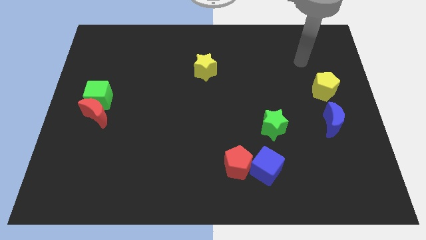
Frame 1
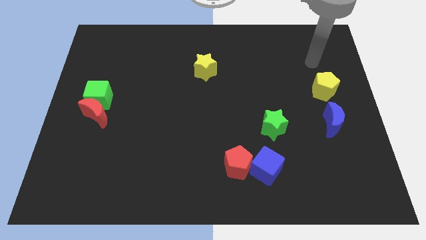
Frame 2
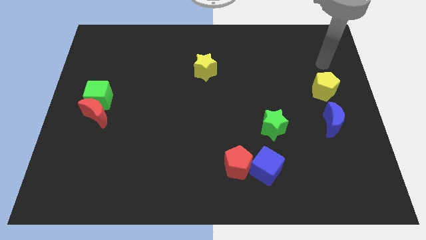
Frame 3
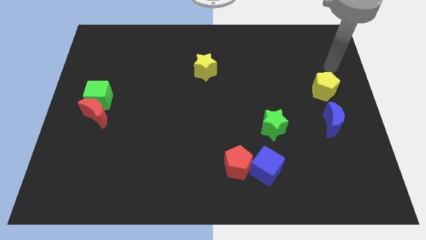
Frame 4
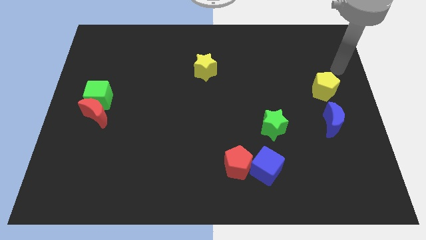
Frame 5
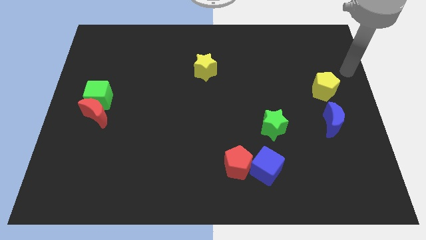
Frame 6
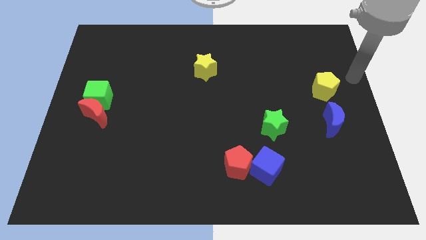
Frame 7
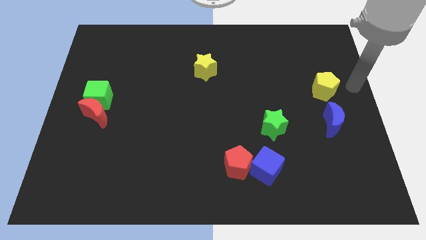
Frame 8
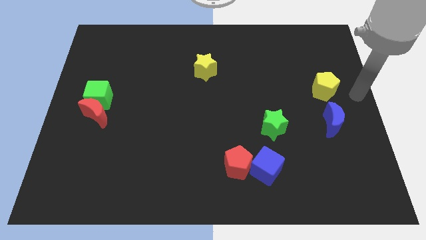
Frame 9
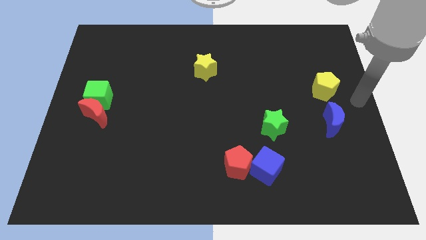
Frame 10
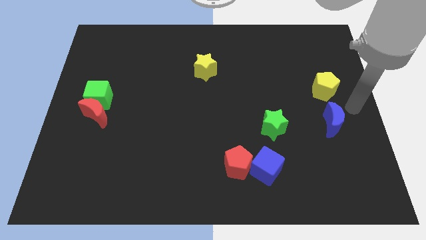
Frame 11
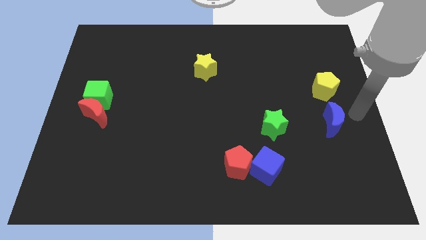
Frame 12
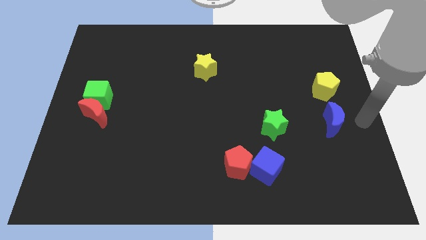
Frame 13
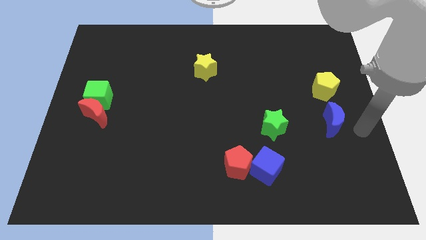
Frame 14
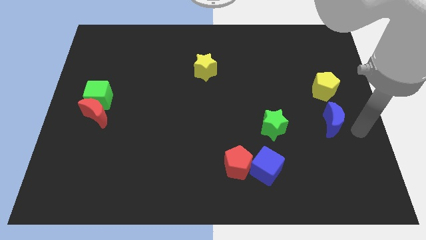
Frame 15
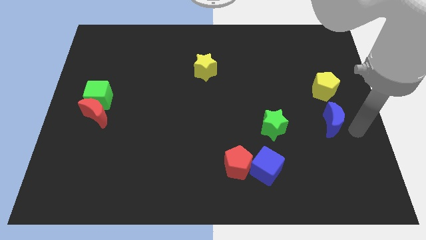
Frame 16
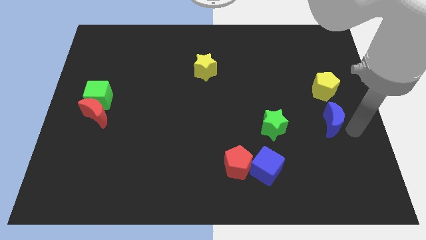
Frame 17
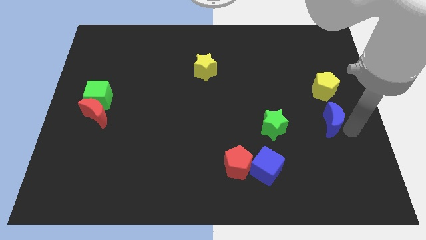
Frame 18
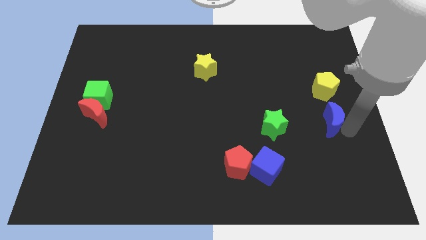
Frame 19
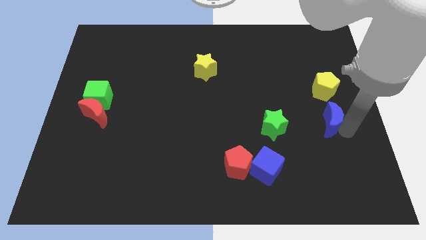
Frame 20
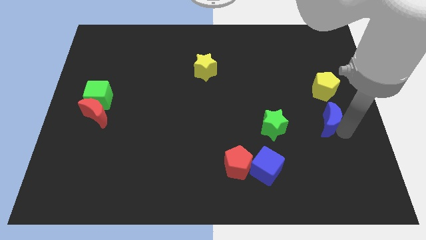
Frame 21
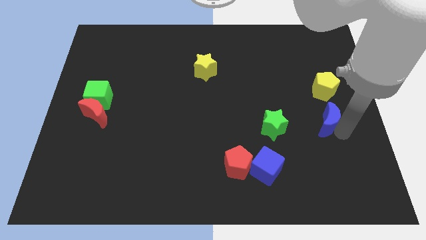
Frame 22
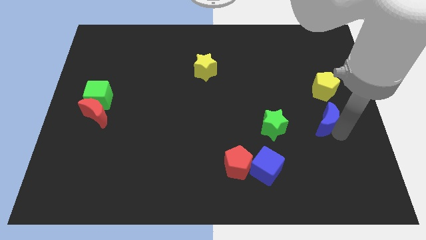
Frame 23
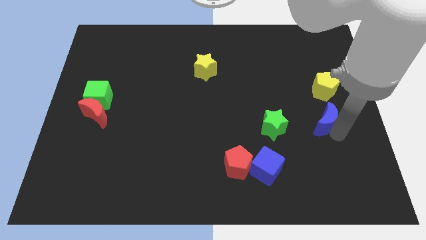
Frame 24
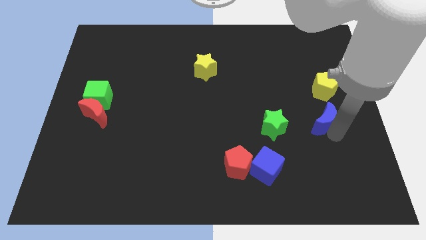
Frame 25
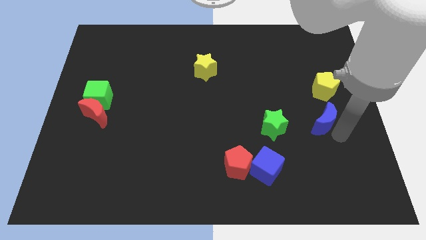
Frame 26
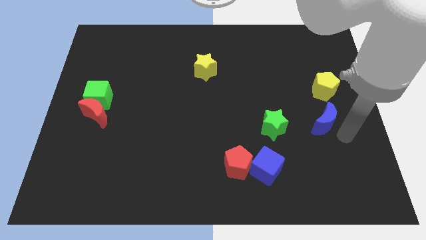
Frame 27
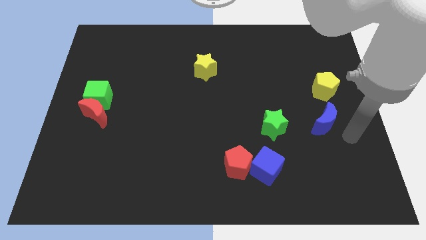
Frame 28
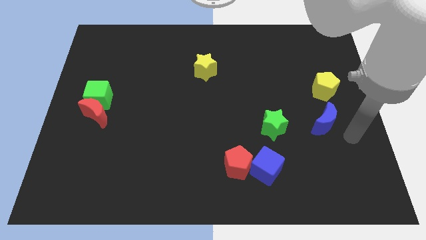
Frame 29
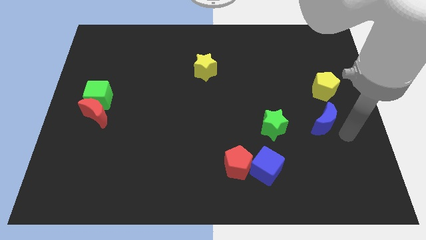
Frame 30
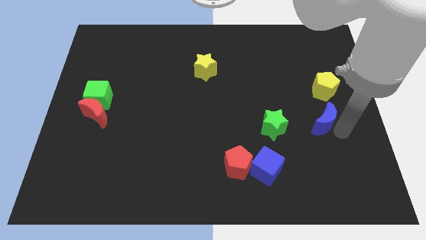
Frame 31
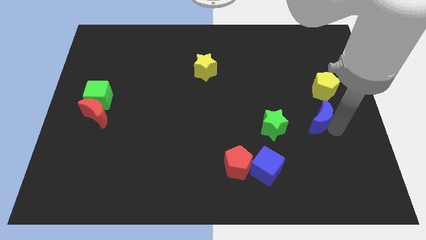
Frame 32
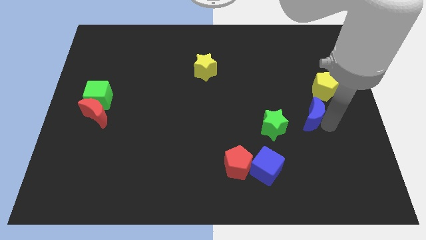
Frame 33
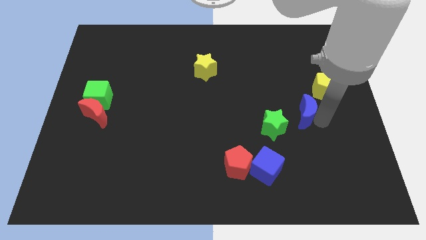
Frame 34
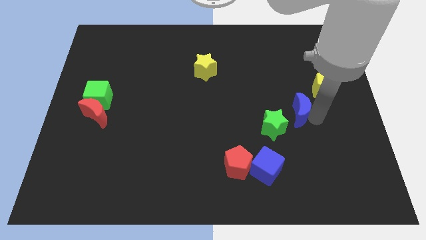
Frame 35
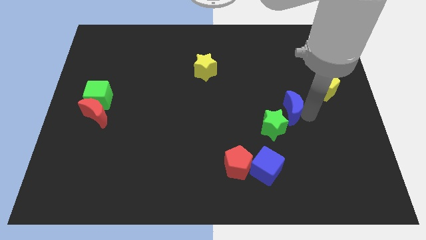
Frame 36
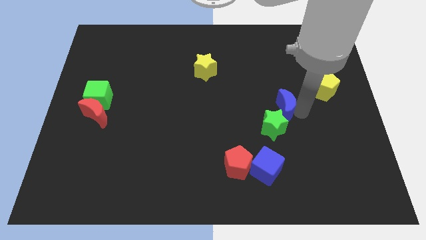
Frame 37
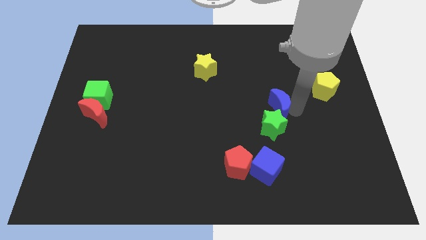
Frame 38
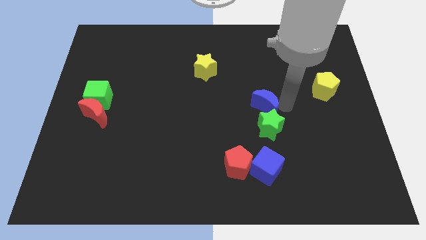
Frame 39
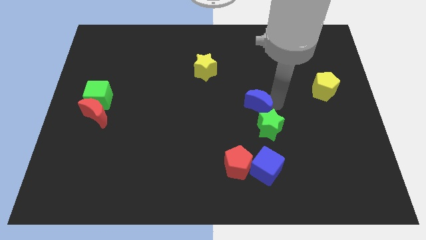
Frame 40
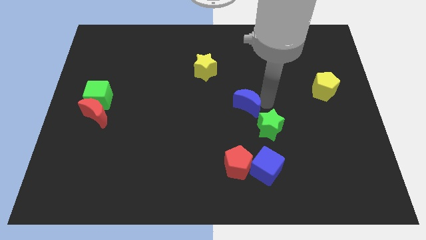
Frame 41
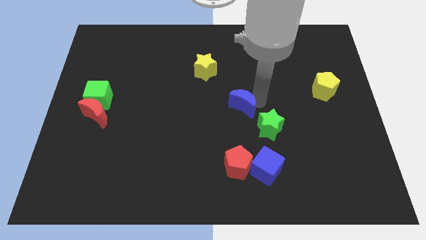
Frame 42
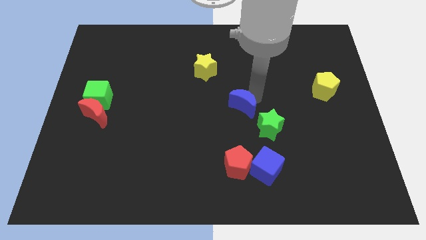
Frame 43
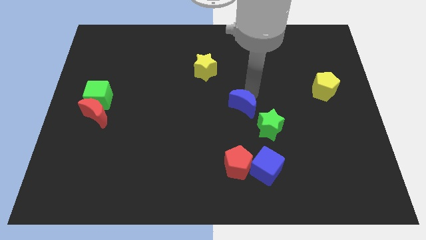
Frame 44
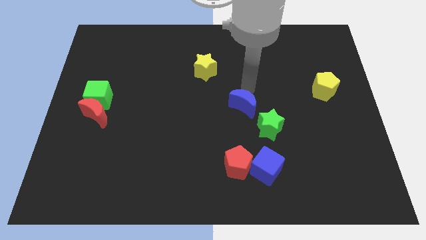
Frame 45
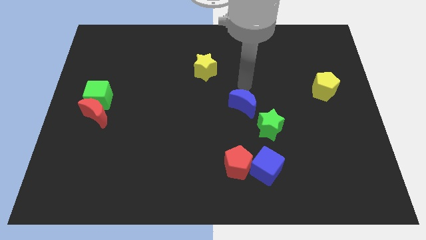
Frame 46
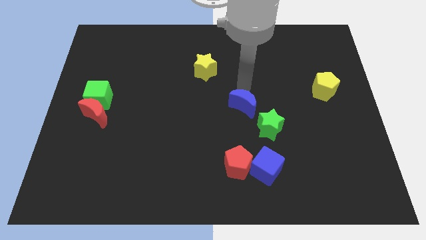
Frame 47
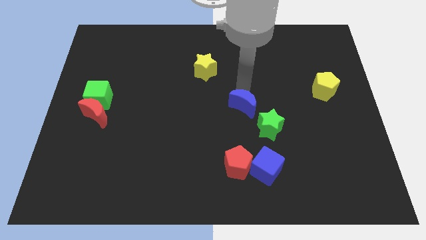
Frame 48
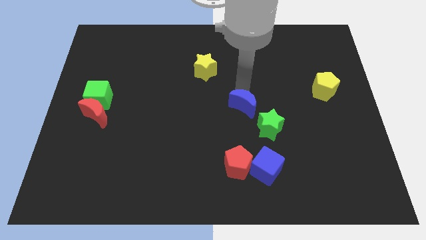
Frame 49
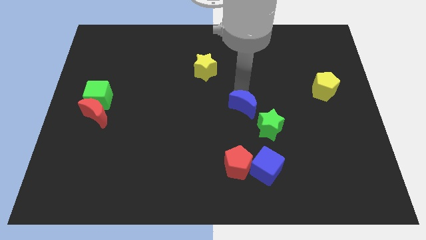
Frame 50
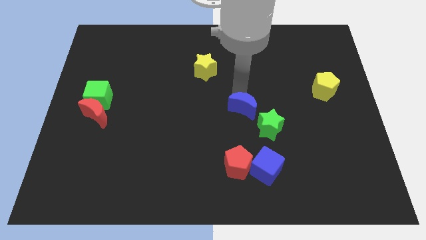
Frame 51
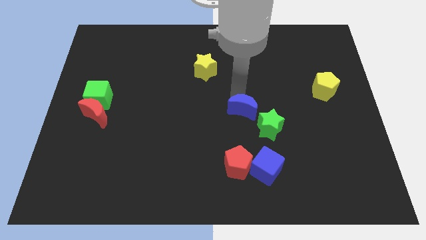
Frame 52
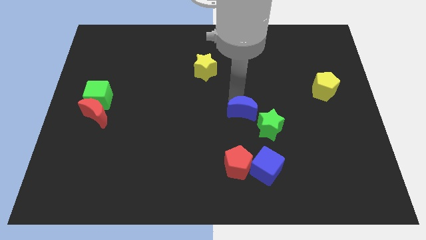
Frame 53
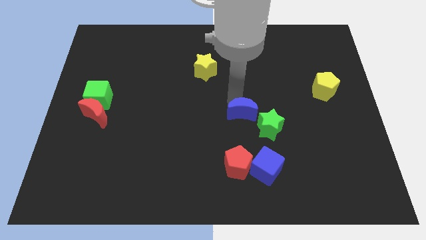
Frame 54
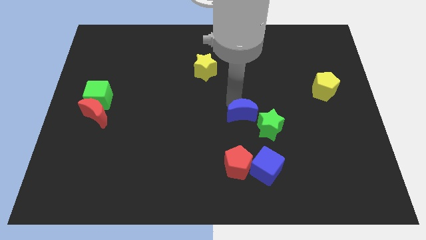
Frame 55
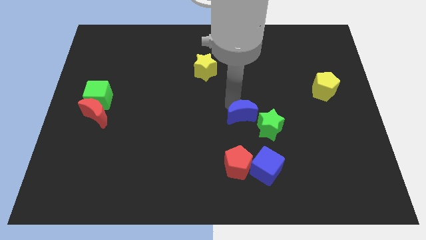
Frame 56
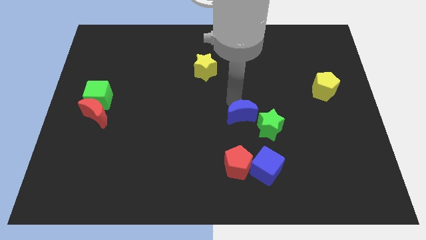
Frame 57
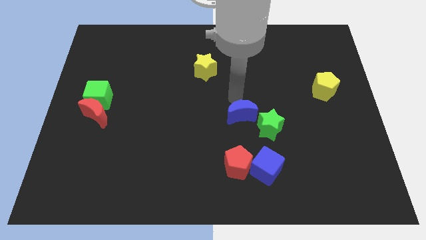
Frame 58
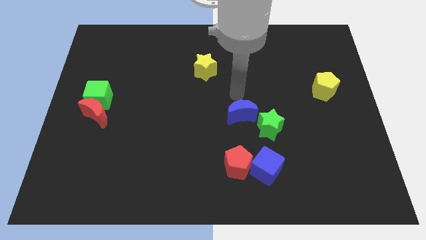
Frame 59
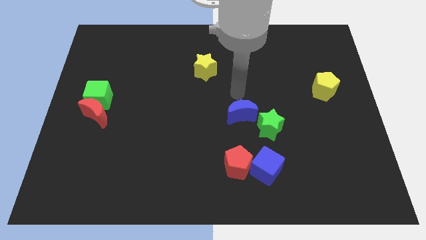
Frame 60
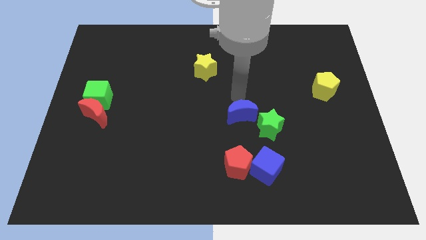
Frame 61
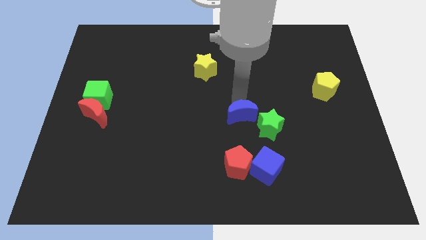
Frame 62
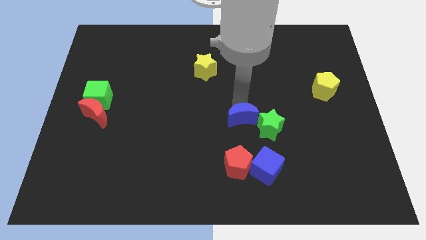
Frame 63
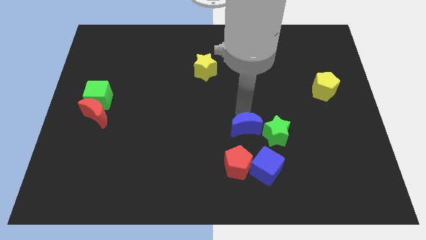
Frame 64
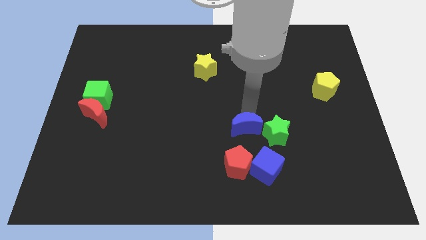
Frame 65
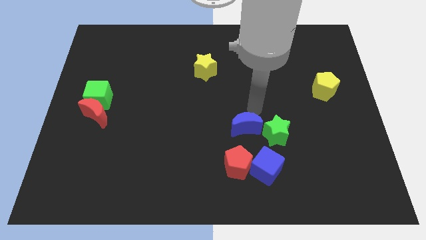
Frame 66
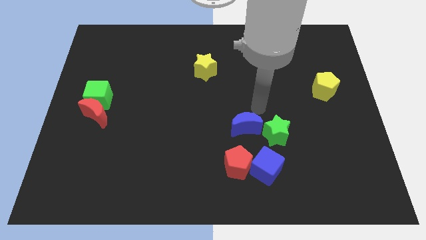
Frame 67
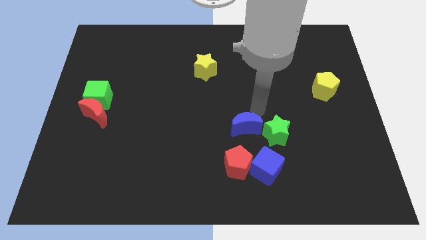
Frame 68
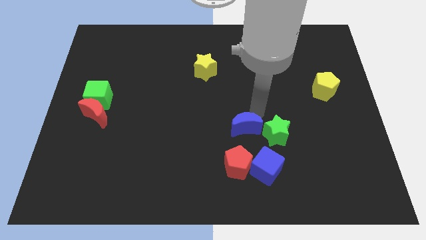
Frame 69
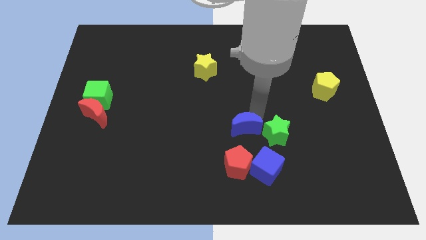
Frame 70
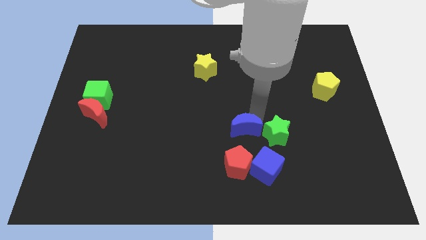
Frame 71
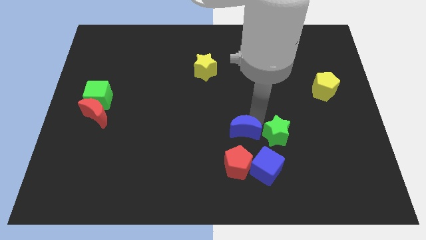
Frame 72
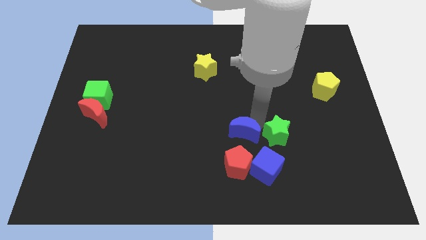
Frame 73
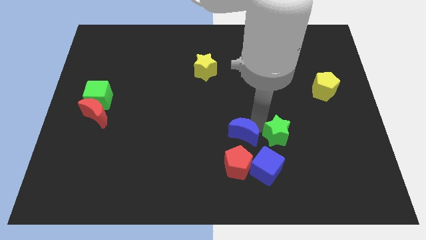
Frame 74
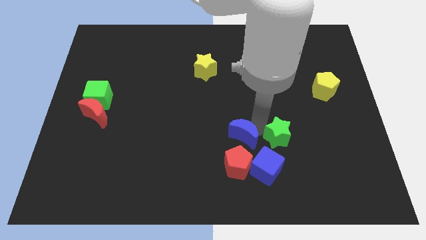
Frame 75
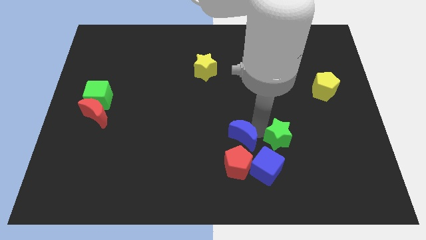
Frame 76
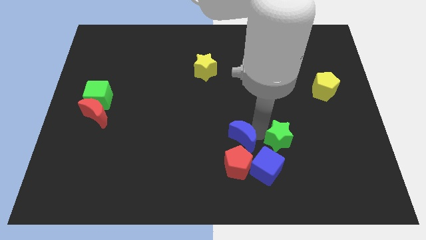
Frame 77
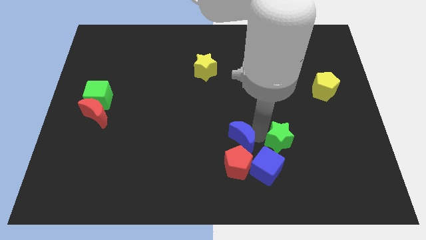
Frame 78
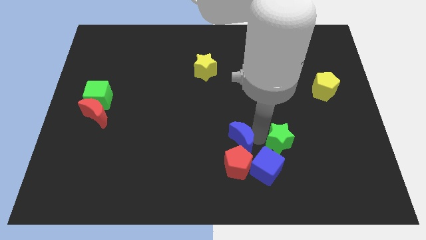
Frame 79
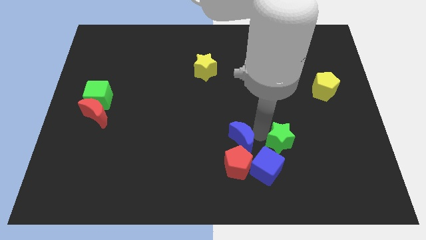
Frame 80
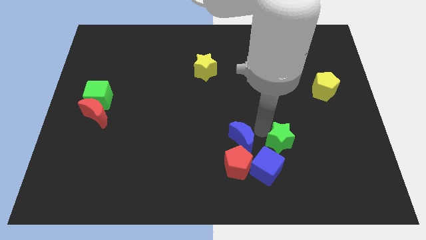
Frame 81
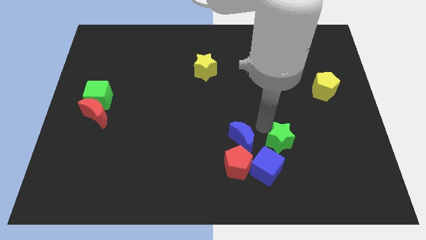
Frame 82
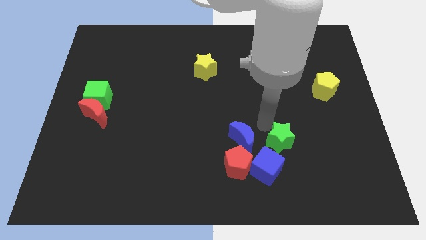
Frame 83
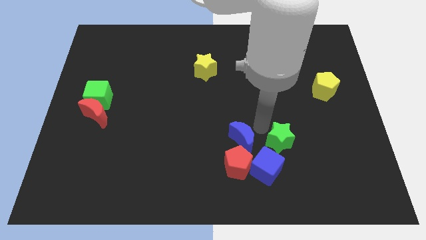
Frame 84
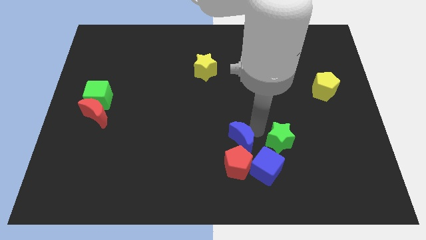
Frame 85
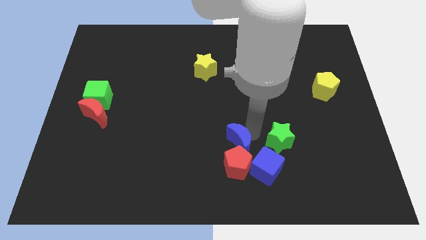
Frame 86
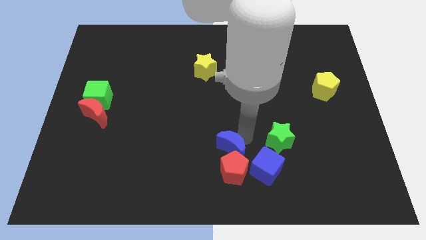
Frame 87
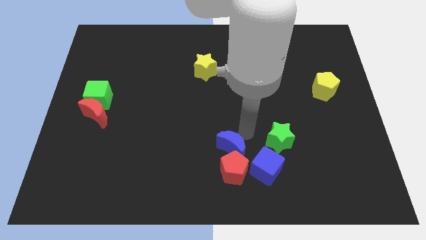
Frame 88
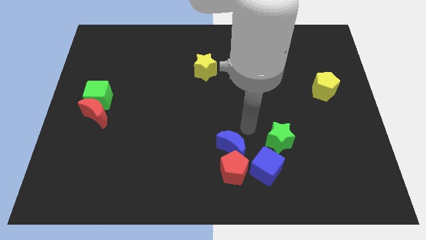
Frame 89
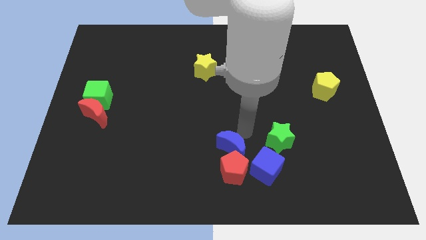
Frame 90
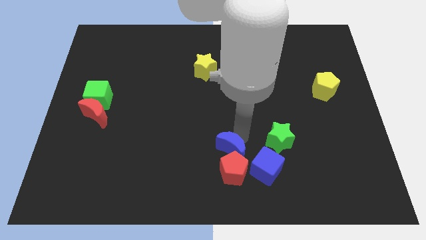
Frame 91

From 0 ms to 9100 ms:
move the blue moon to the left of the blue cube
